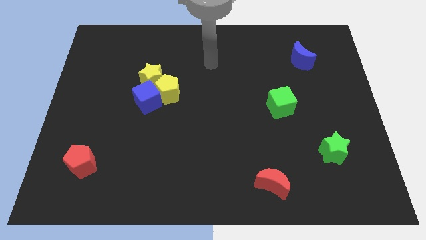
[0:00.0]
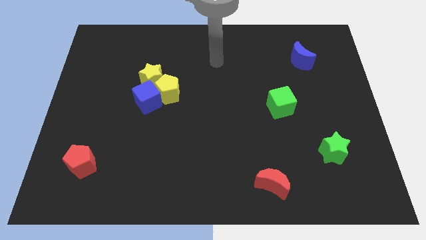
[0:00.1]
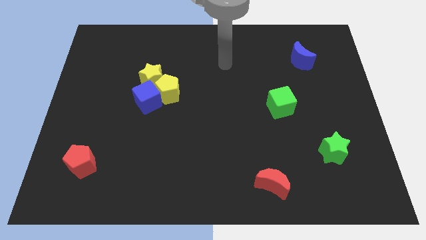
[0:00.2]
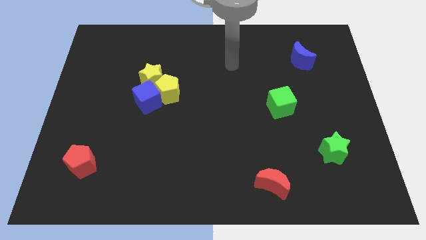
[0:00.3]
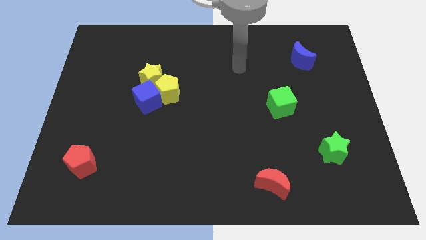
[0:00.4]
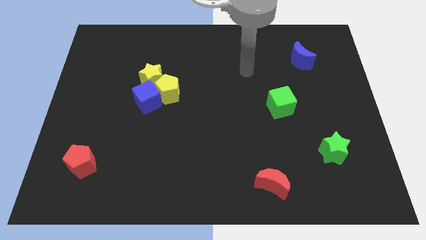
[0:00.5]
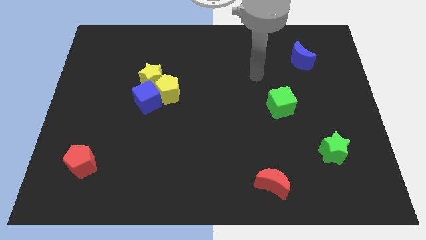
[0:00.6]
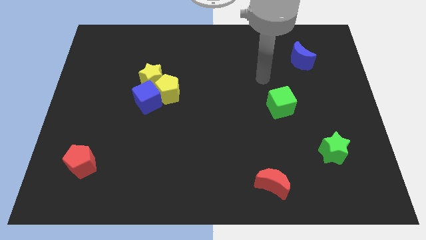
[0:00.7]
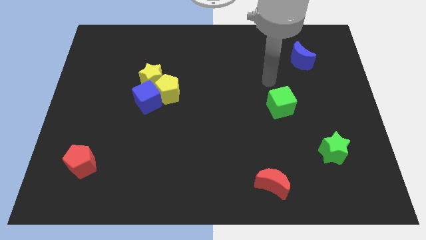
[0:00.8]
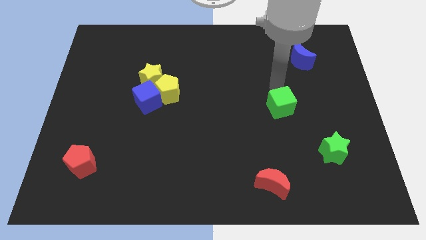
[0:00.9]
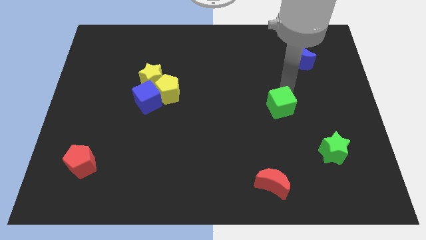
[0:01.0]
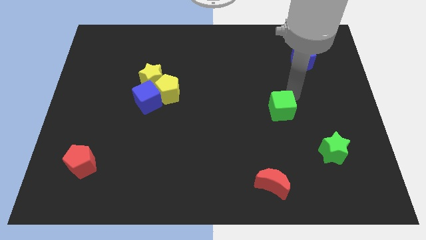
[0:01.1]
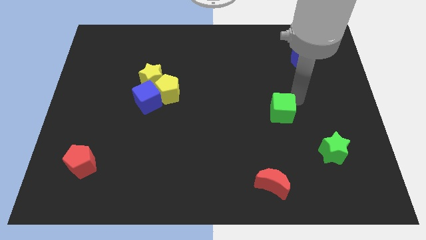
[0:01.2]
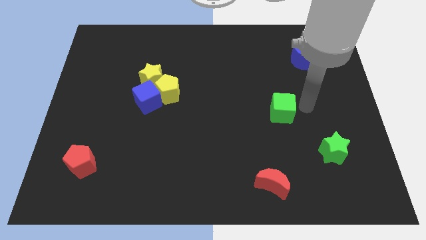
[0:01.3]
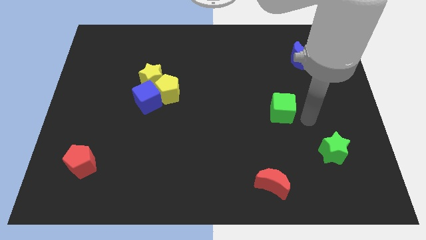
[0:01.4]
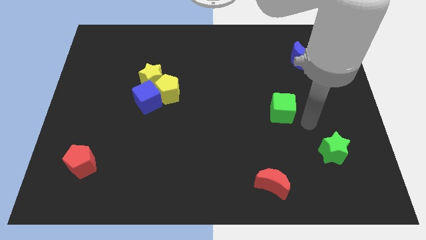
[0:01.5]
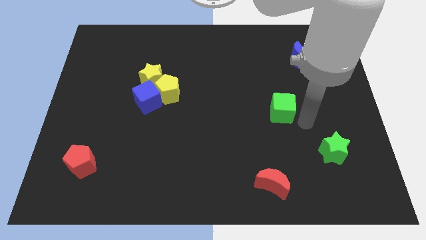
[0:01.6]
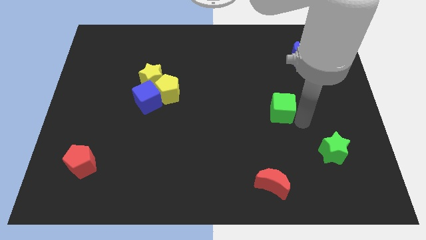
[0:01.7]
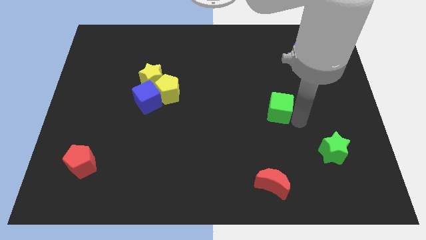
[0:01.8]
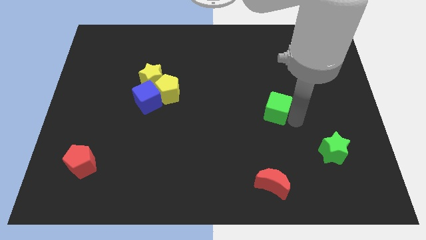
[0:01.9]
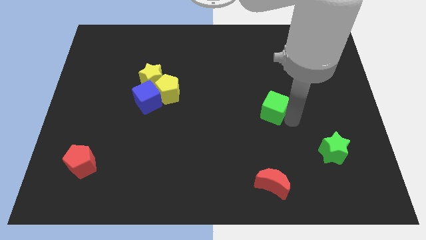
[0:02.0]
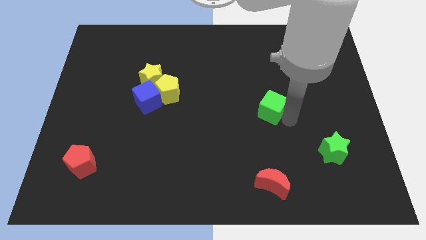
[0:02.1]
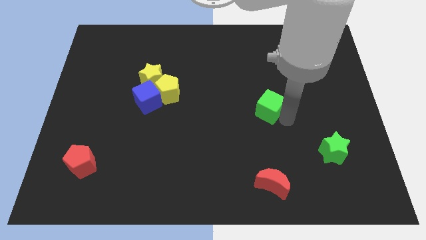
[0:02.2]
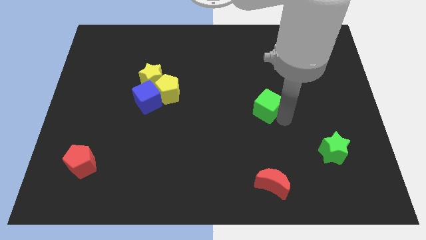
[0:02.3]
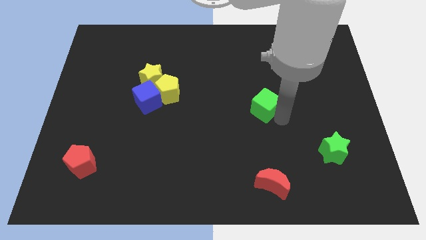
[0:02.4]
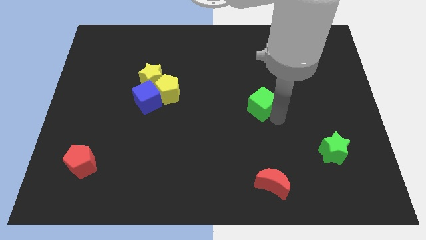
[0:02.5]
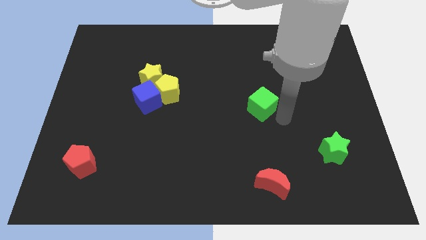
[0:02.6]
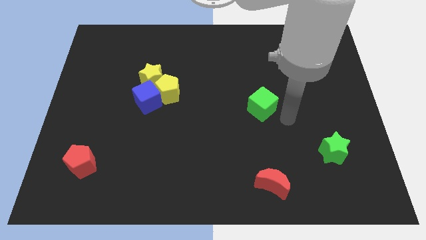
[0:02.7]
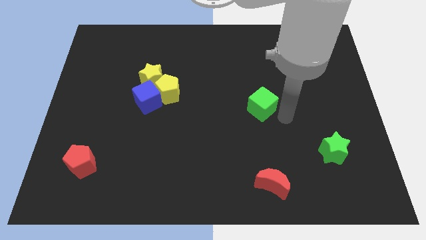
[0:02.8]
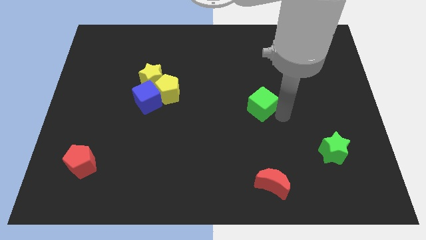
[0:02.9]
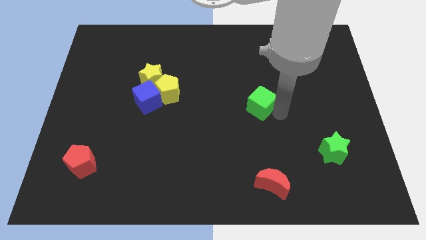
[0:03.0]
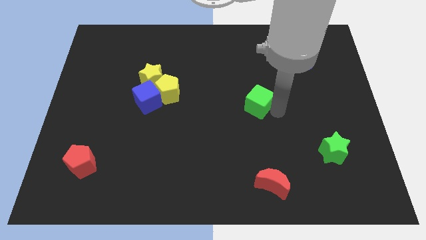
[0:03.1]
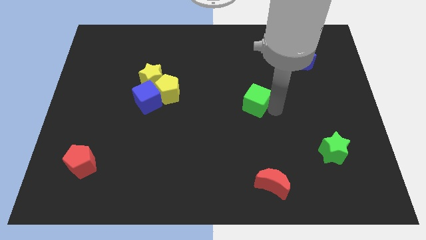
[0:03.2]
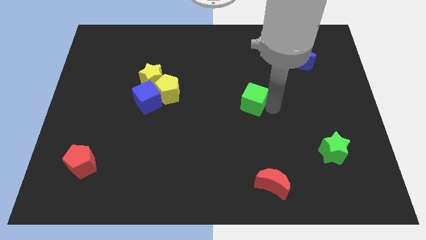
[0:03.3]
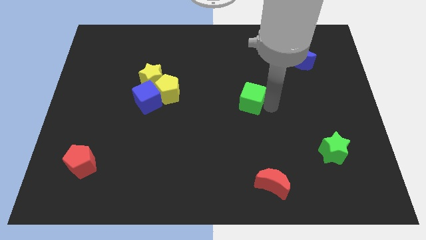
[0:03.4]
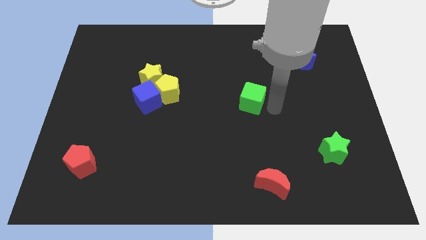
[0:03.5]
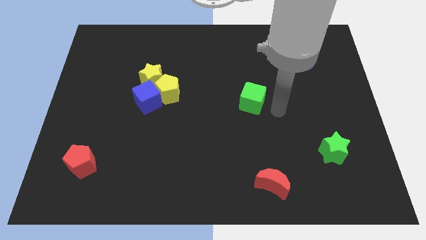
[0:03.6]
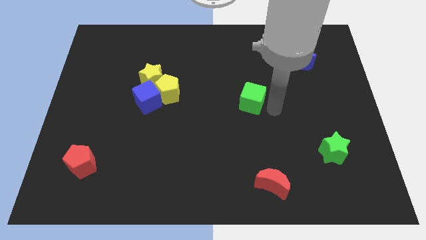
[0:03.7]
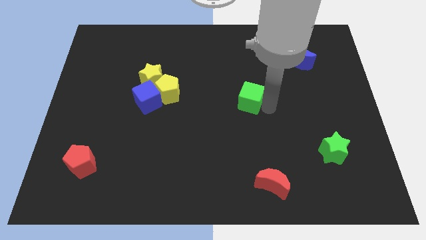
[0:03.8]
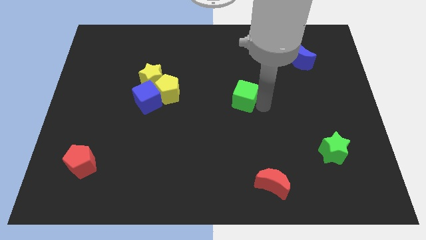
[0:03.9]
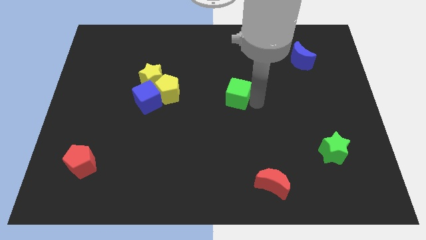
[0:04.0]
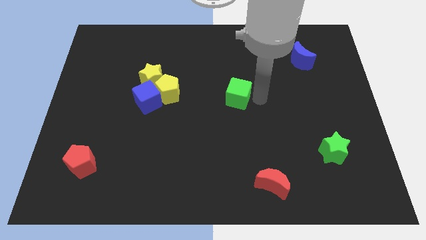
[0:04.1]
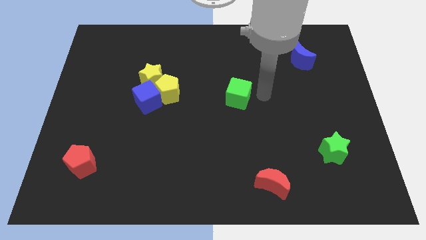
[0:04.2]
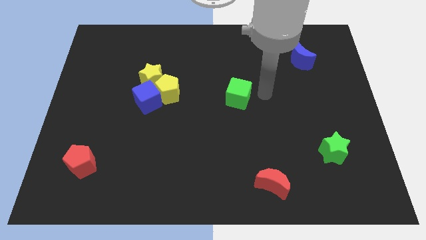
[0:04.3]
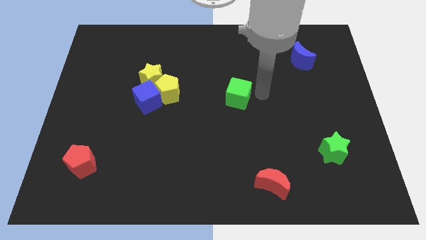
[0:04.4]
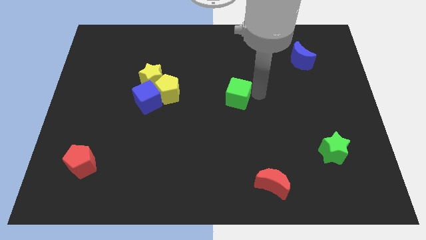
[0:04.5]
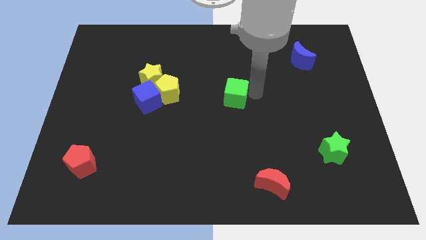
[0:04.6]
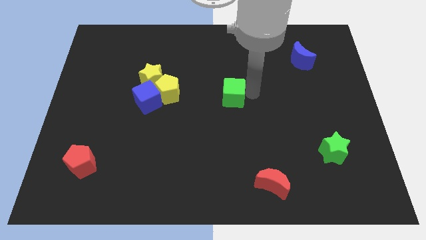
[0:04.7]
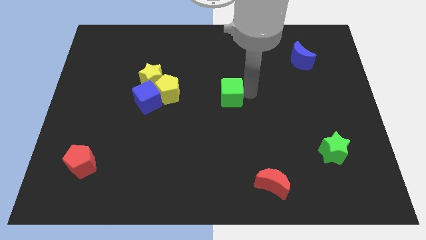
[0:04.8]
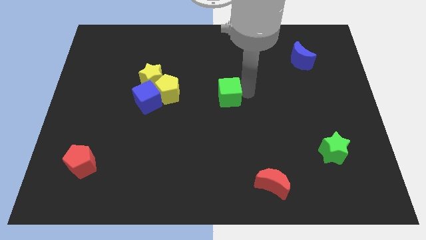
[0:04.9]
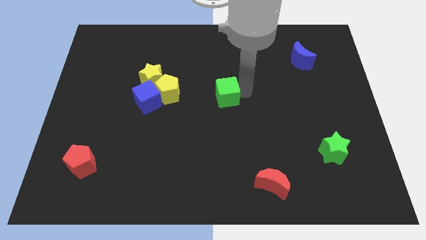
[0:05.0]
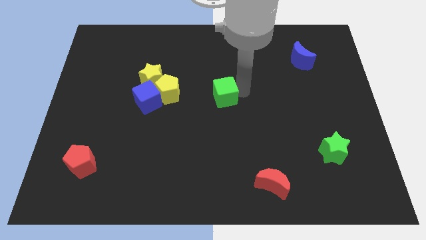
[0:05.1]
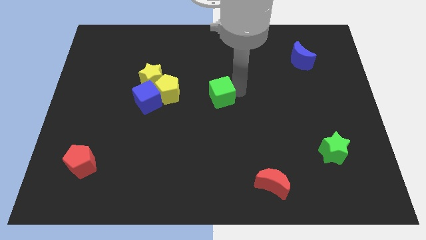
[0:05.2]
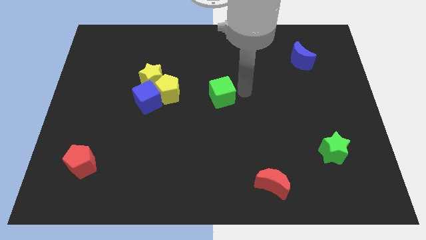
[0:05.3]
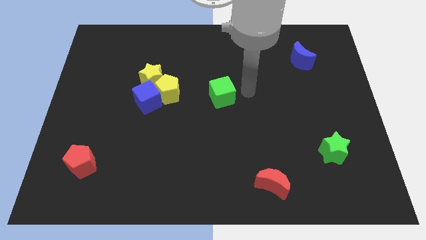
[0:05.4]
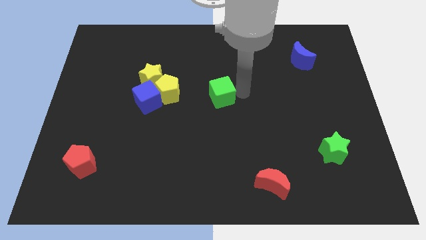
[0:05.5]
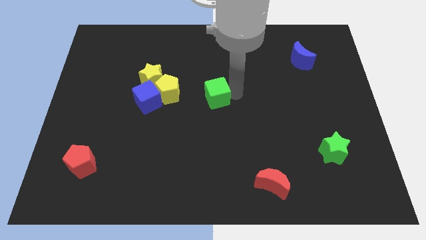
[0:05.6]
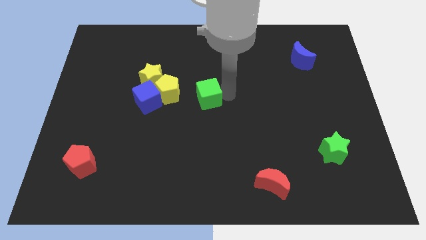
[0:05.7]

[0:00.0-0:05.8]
slide the green cube just right of the blue cube

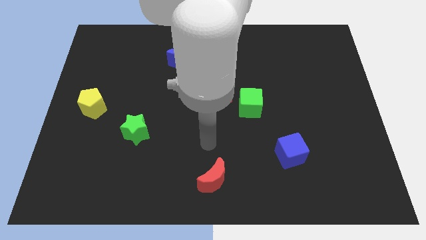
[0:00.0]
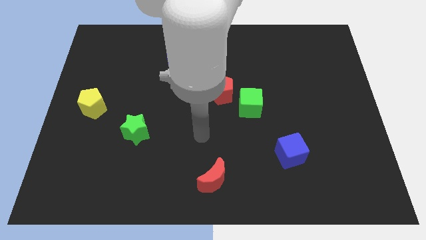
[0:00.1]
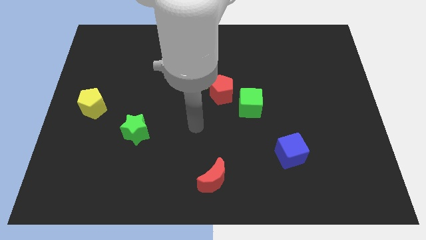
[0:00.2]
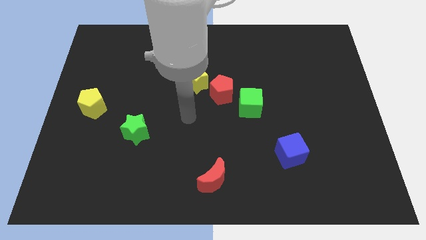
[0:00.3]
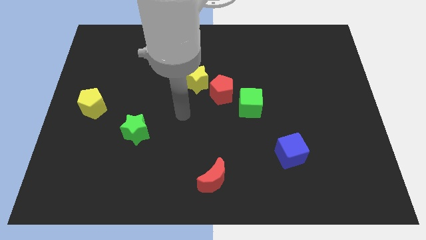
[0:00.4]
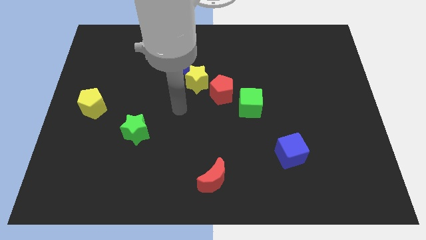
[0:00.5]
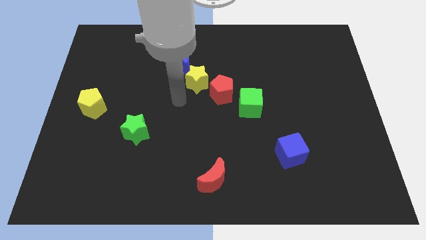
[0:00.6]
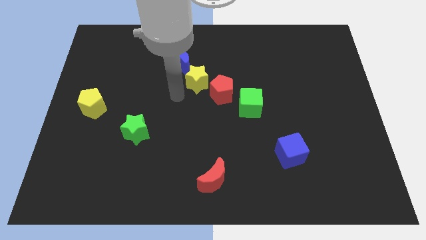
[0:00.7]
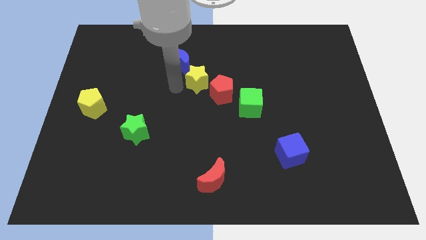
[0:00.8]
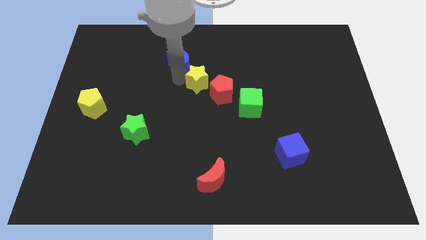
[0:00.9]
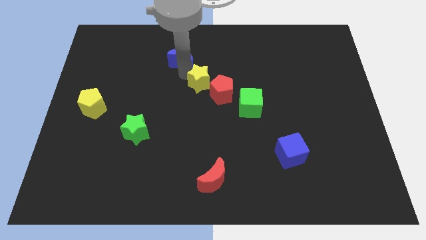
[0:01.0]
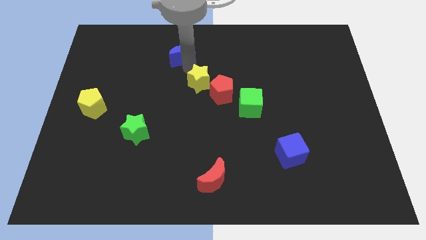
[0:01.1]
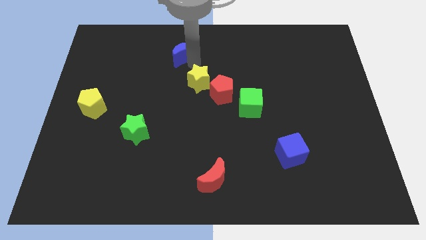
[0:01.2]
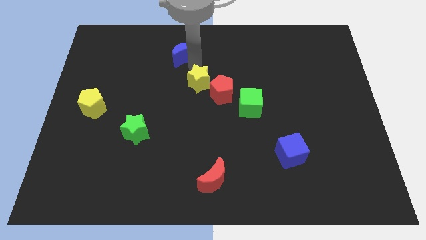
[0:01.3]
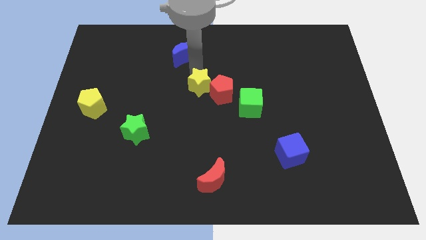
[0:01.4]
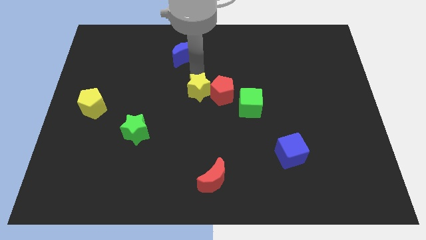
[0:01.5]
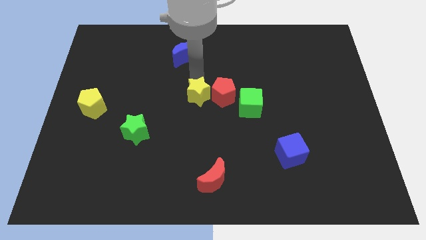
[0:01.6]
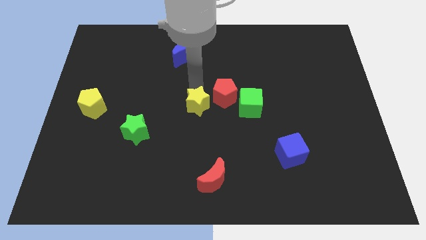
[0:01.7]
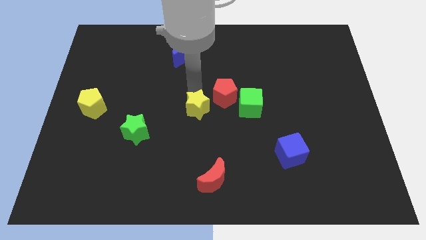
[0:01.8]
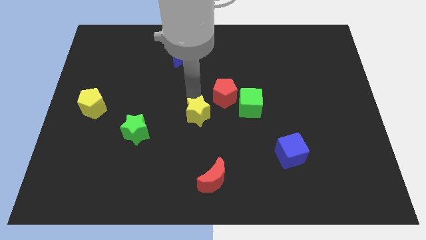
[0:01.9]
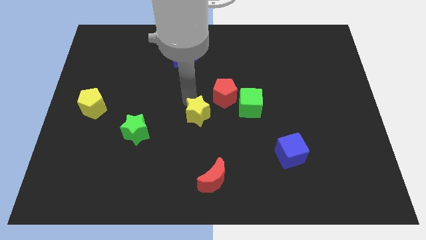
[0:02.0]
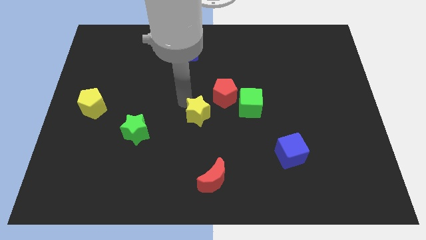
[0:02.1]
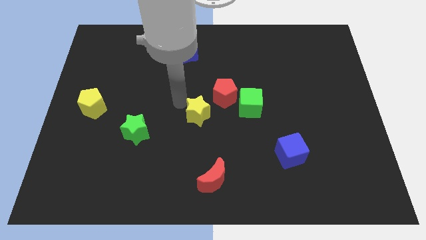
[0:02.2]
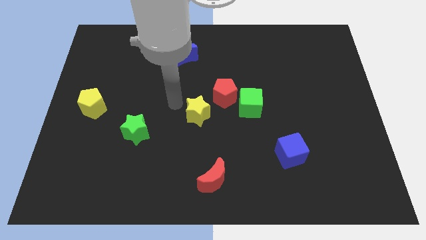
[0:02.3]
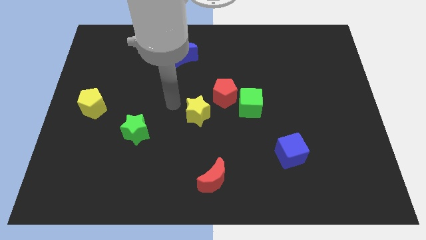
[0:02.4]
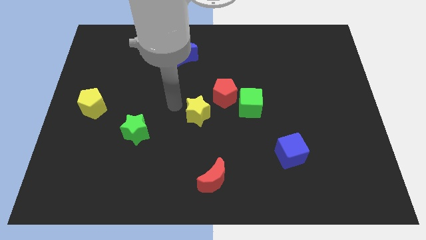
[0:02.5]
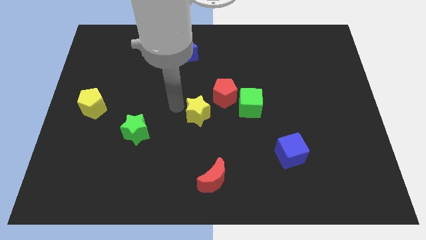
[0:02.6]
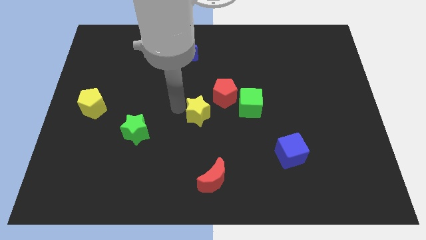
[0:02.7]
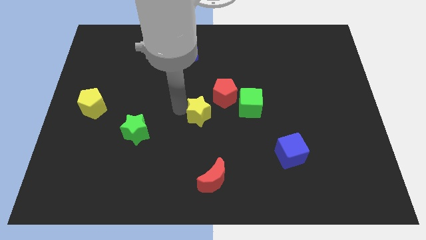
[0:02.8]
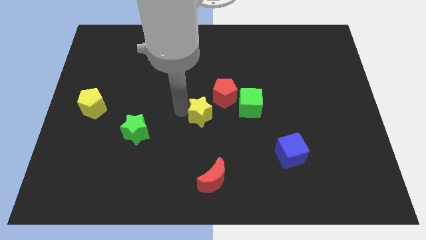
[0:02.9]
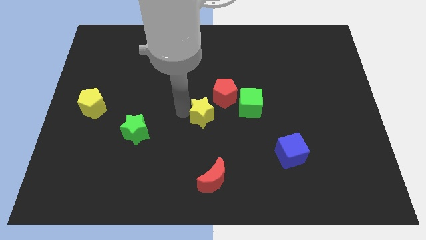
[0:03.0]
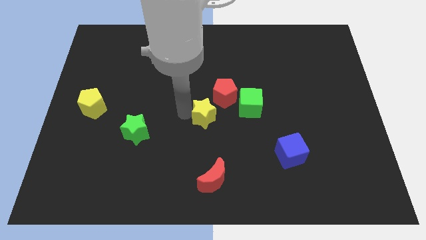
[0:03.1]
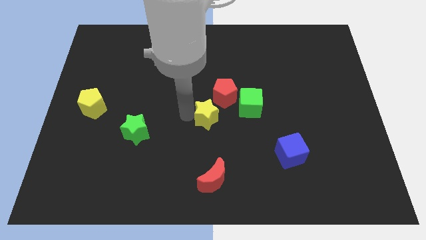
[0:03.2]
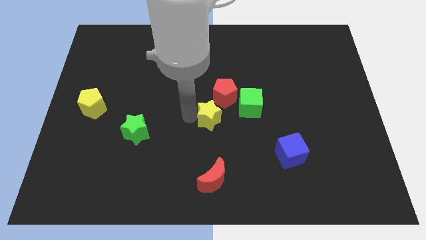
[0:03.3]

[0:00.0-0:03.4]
slide the yellow star to the bottom left side of the green cube
